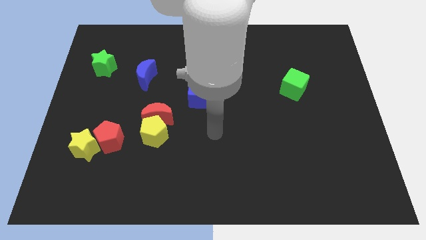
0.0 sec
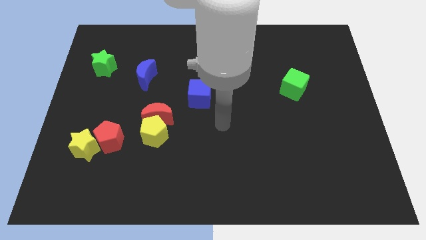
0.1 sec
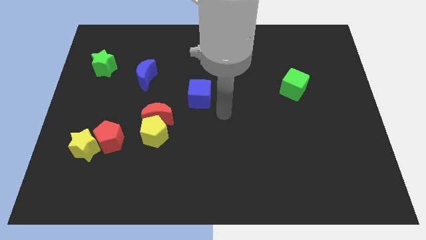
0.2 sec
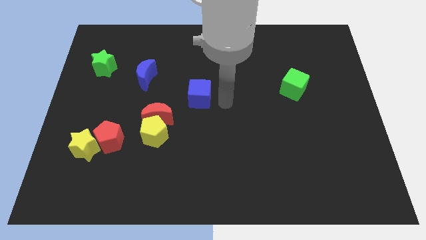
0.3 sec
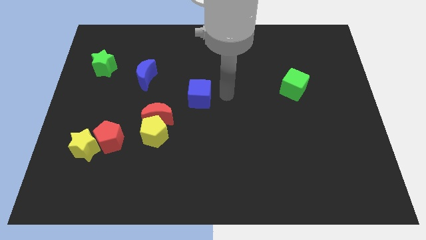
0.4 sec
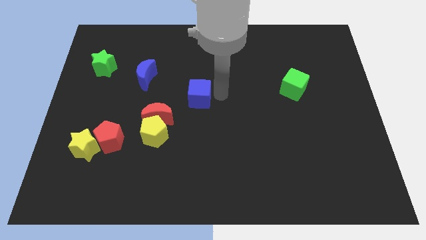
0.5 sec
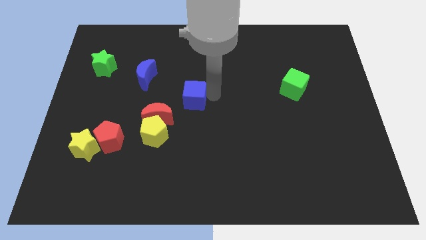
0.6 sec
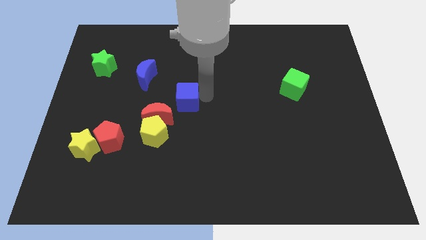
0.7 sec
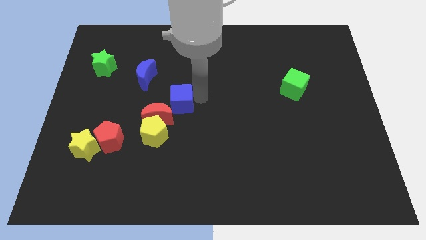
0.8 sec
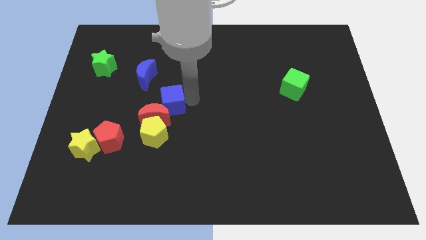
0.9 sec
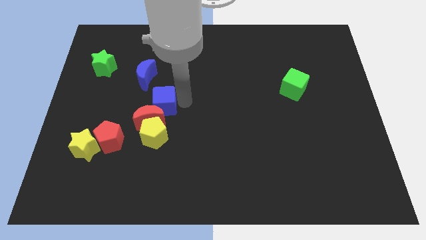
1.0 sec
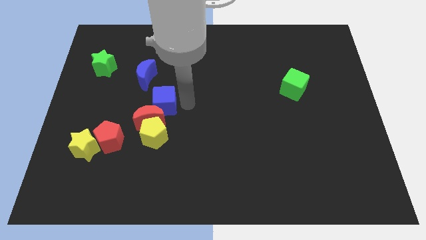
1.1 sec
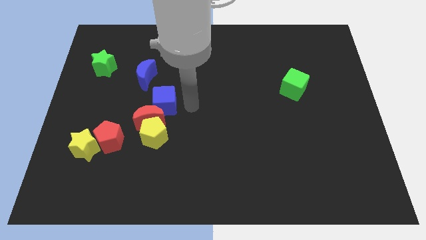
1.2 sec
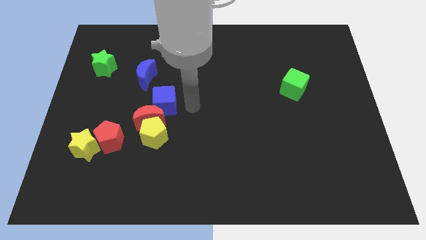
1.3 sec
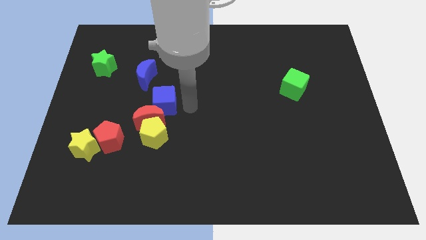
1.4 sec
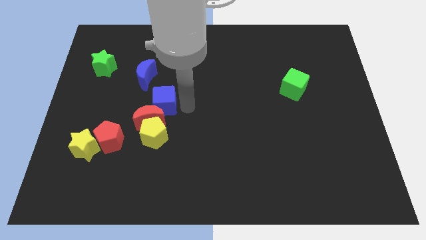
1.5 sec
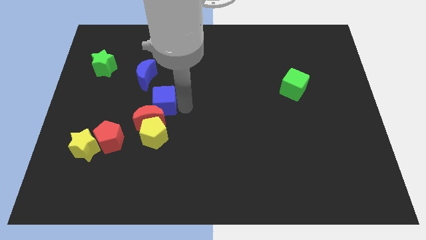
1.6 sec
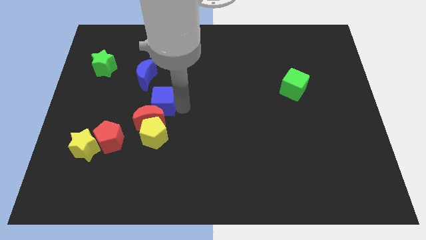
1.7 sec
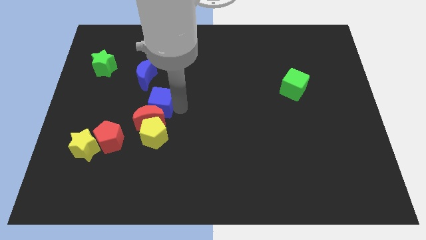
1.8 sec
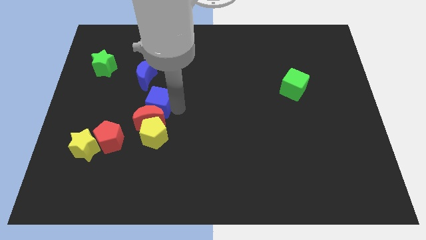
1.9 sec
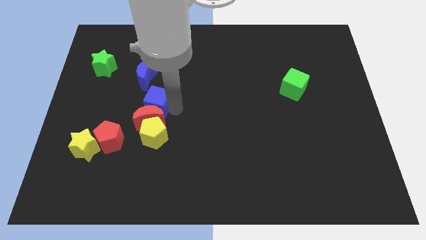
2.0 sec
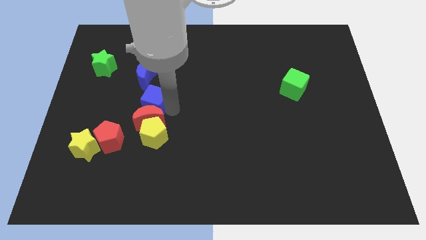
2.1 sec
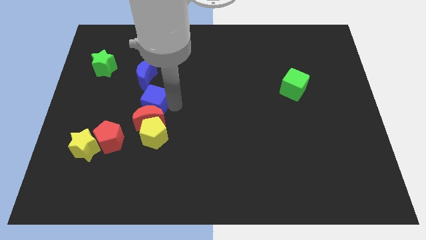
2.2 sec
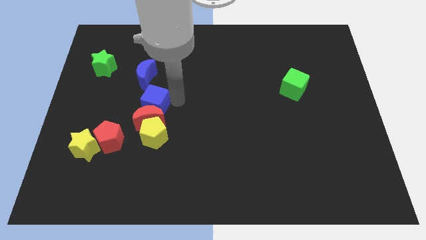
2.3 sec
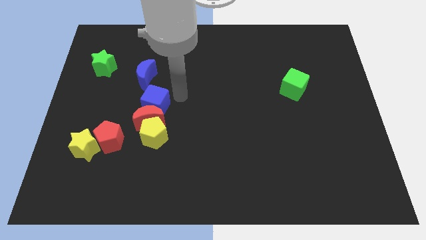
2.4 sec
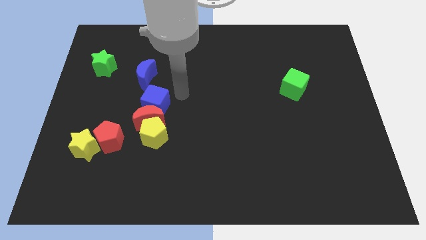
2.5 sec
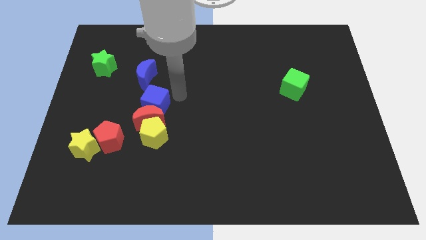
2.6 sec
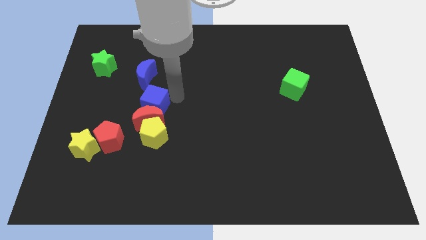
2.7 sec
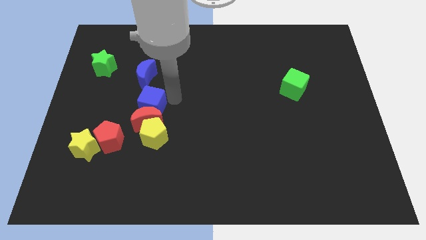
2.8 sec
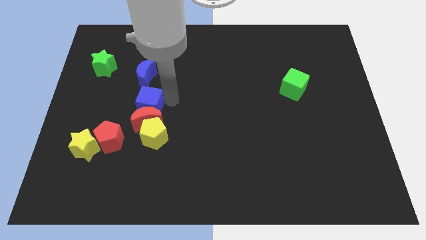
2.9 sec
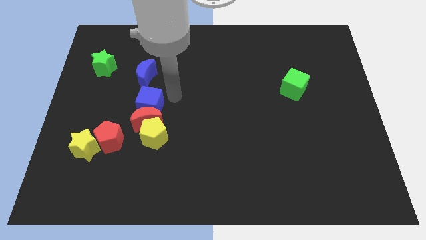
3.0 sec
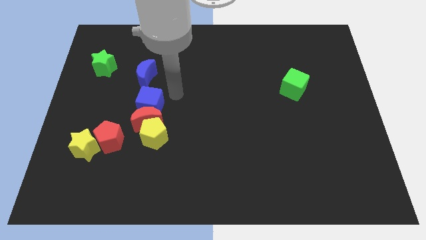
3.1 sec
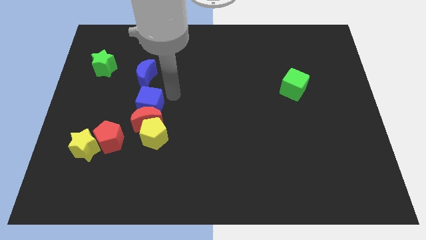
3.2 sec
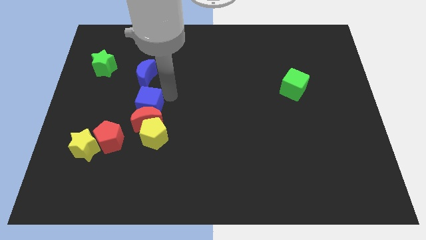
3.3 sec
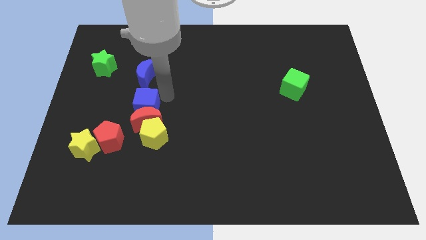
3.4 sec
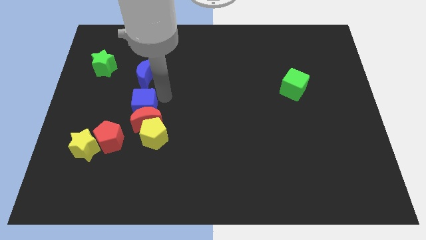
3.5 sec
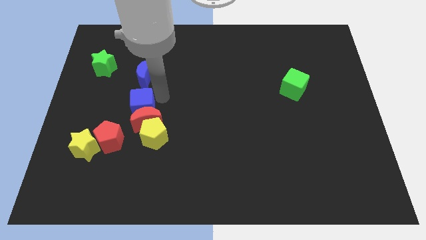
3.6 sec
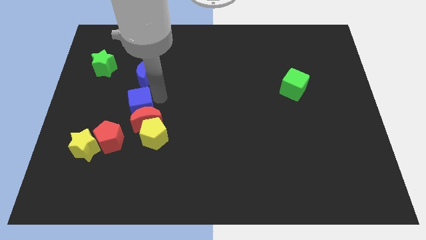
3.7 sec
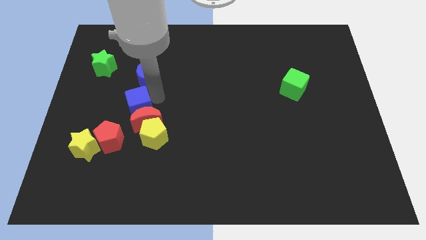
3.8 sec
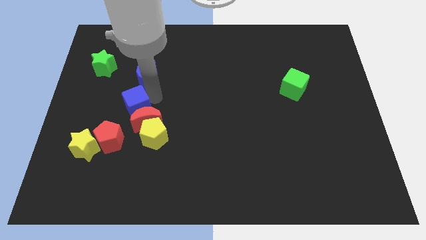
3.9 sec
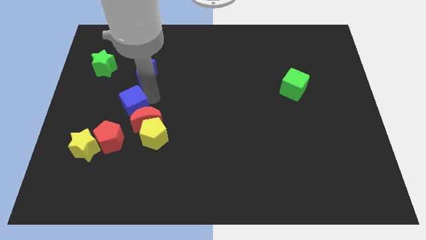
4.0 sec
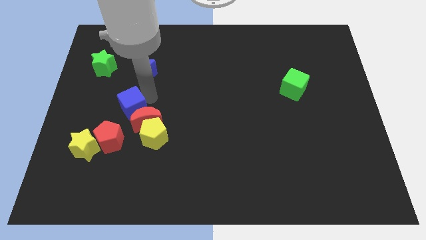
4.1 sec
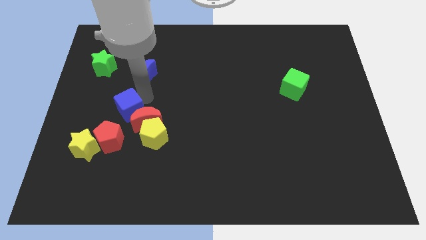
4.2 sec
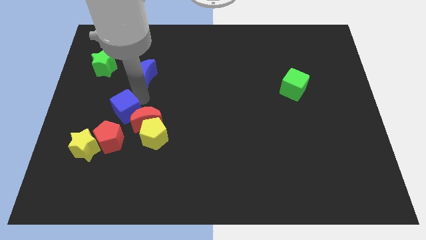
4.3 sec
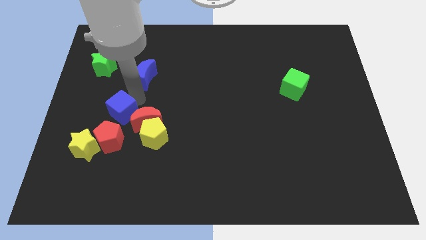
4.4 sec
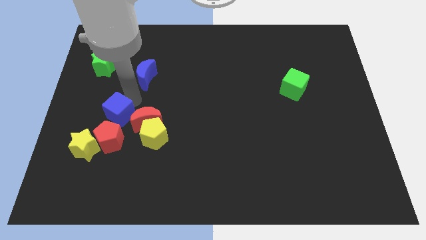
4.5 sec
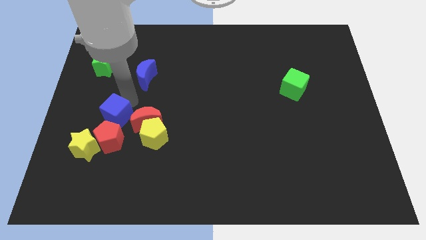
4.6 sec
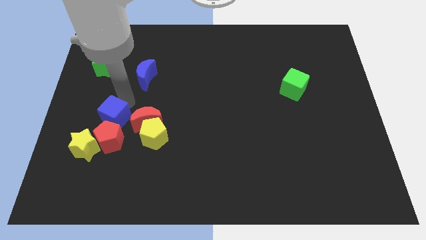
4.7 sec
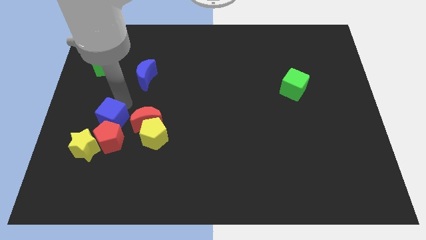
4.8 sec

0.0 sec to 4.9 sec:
move the blue cube to the red pentagon

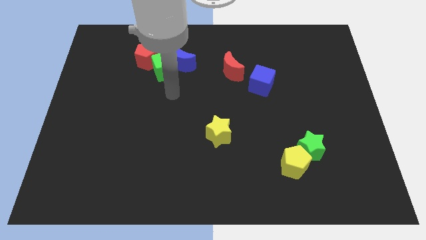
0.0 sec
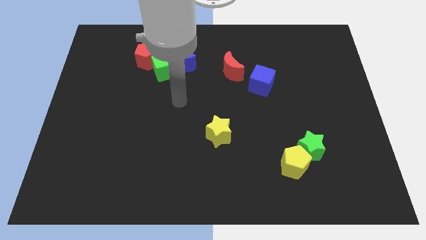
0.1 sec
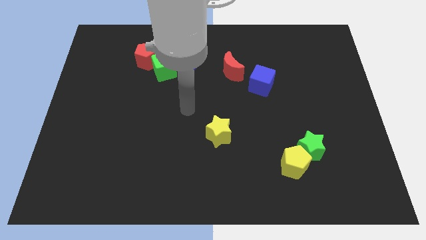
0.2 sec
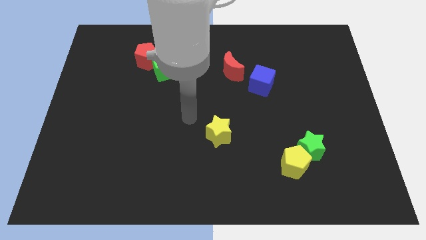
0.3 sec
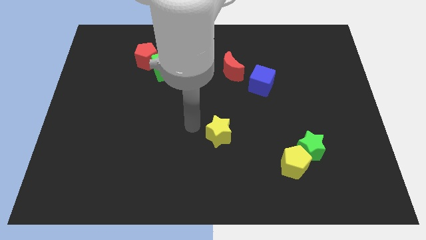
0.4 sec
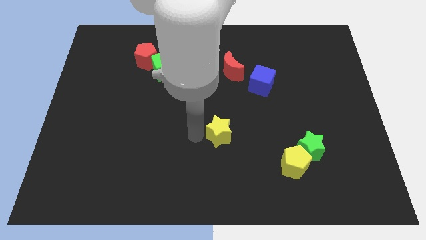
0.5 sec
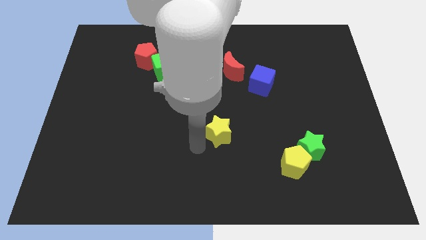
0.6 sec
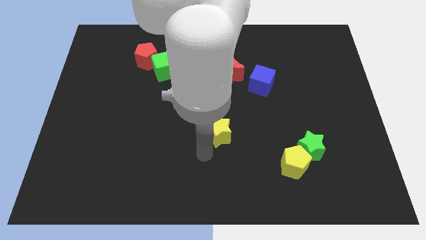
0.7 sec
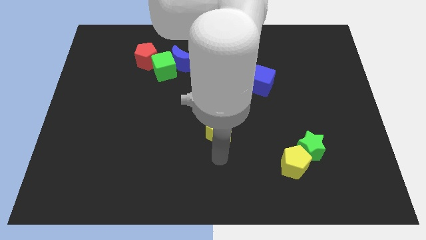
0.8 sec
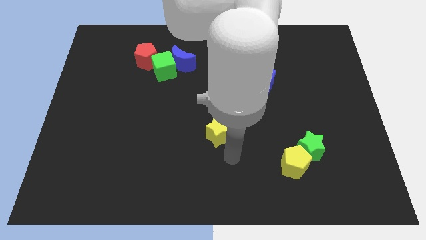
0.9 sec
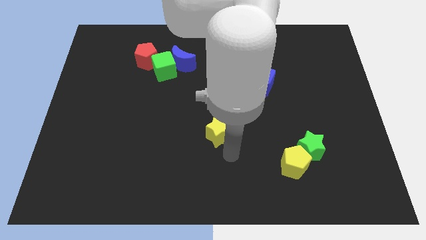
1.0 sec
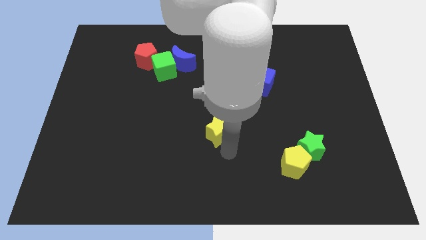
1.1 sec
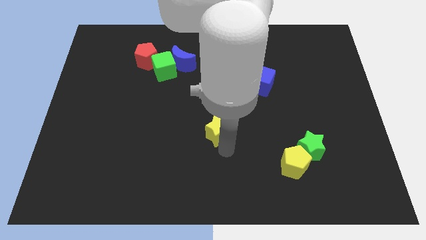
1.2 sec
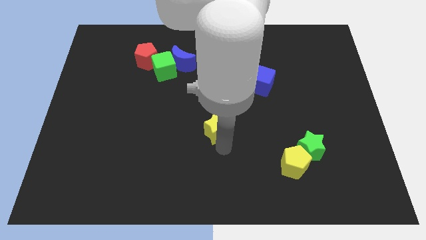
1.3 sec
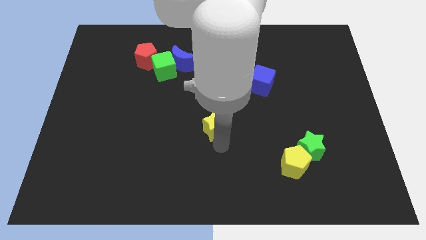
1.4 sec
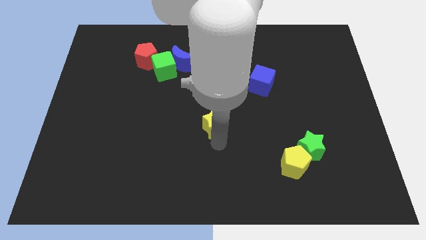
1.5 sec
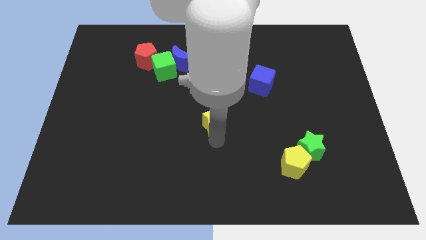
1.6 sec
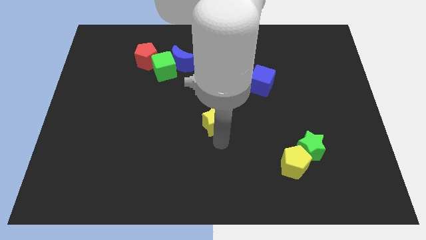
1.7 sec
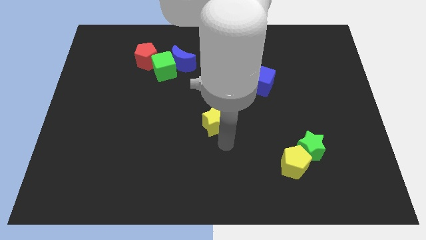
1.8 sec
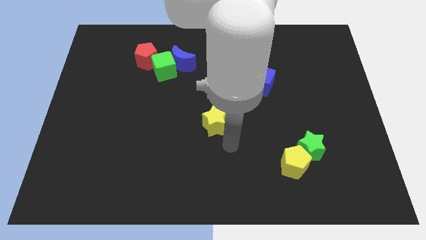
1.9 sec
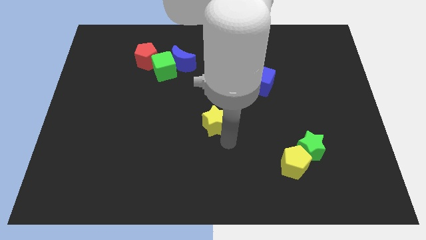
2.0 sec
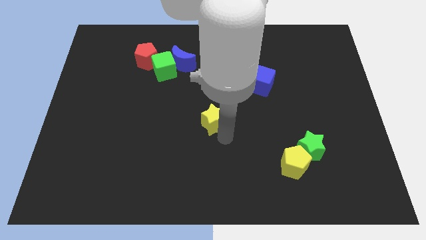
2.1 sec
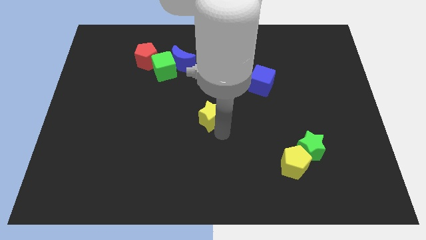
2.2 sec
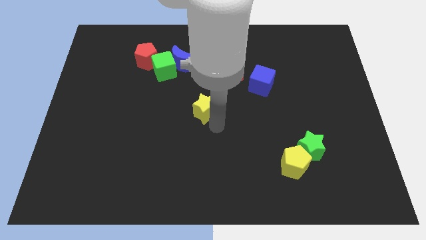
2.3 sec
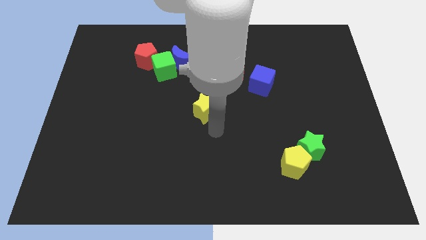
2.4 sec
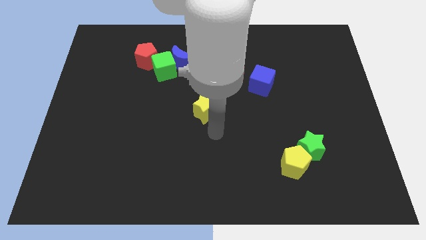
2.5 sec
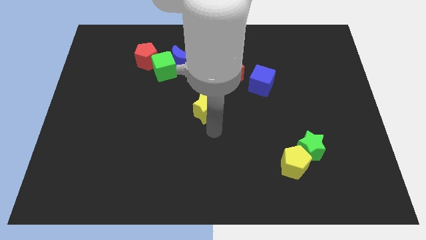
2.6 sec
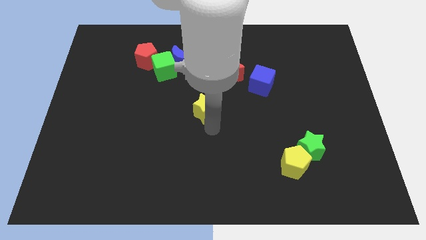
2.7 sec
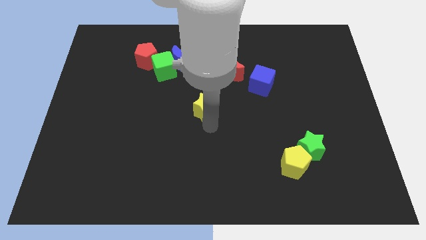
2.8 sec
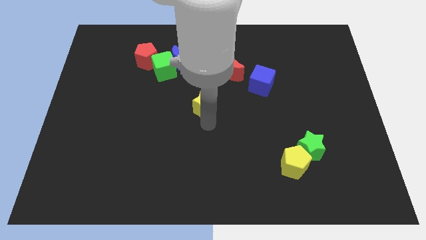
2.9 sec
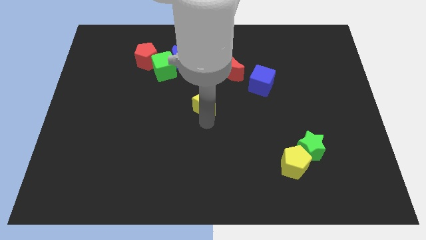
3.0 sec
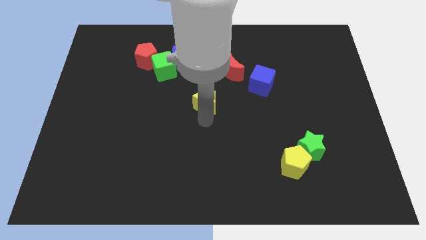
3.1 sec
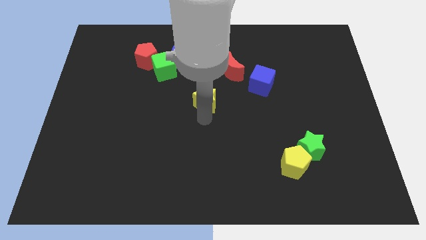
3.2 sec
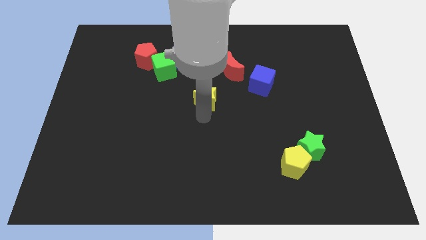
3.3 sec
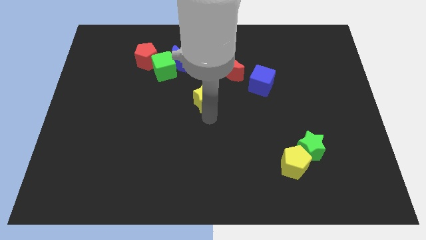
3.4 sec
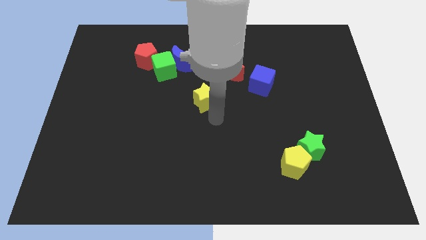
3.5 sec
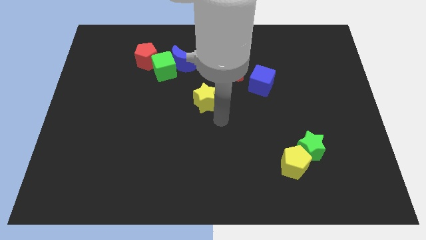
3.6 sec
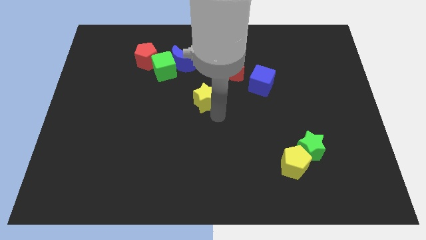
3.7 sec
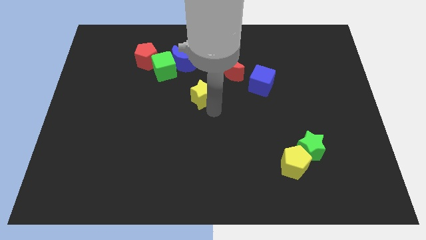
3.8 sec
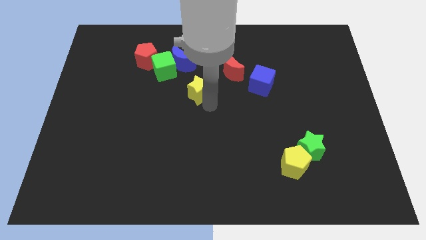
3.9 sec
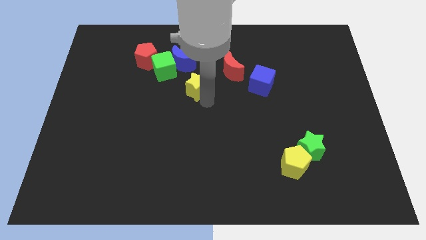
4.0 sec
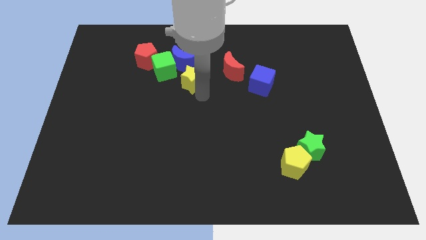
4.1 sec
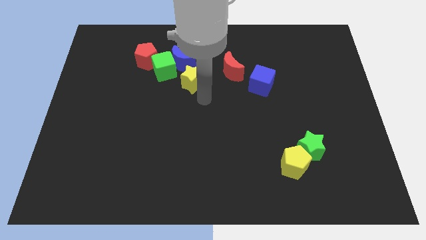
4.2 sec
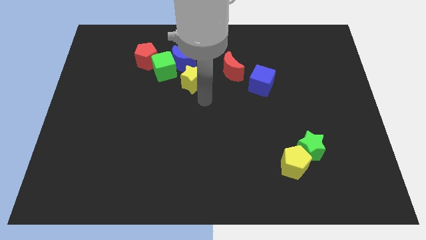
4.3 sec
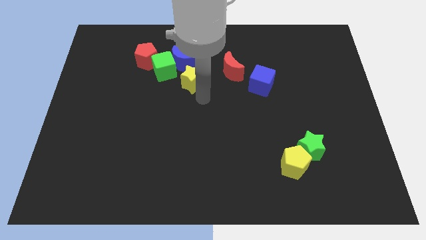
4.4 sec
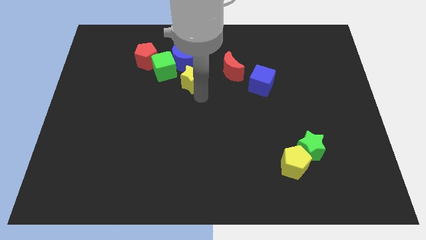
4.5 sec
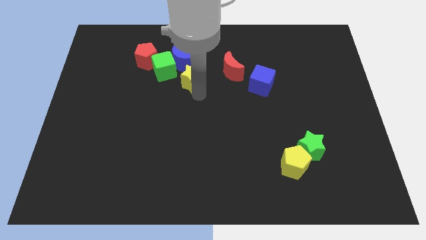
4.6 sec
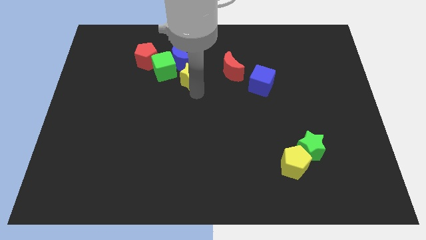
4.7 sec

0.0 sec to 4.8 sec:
move the yellow star to the blue moon
